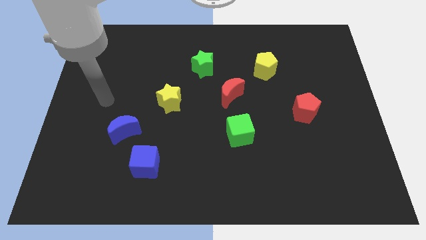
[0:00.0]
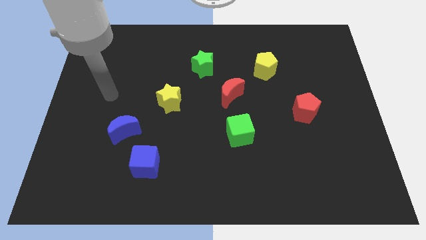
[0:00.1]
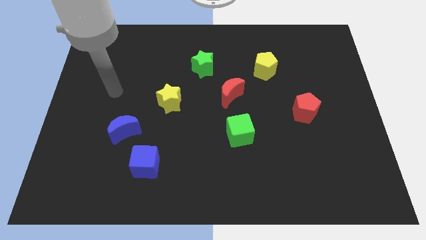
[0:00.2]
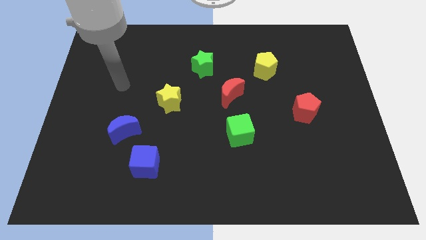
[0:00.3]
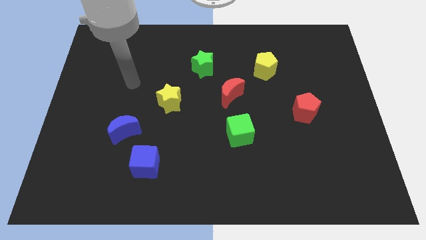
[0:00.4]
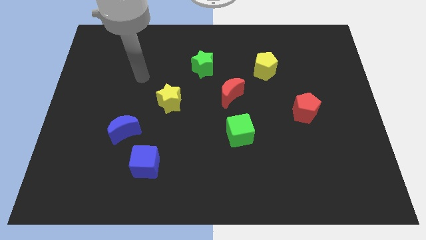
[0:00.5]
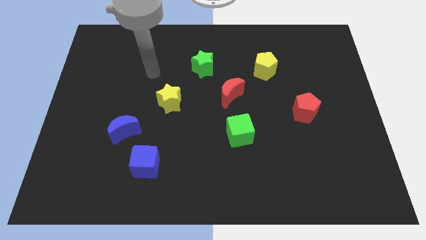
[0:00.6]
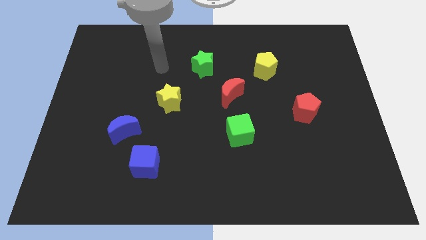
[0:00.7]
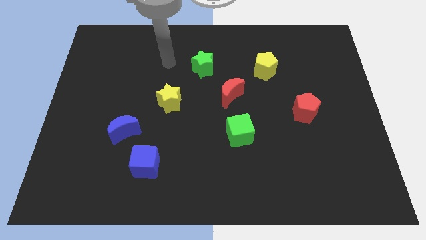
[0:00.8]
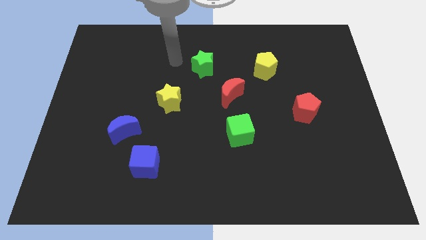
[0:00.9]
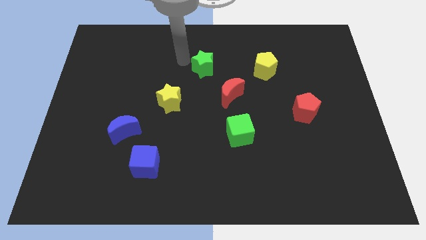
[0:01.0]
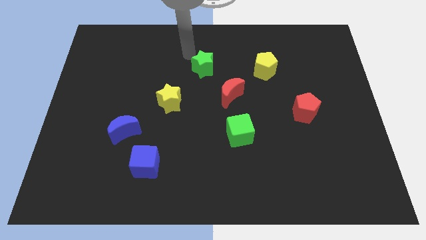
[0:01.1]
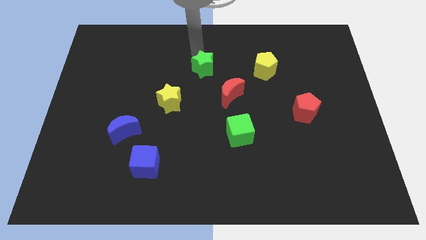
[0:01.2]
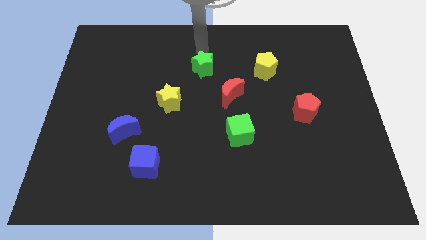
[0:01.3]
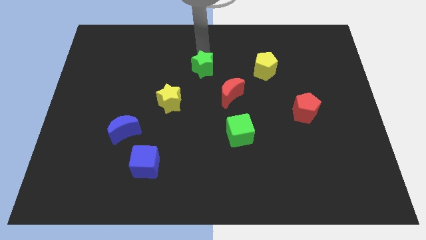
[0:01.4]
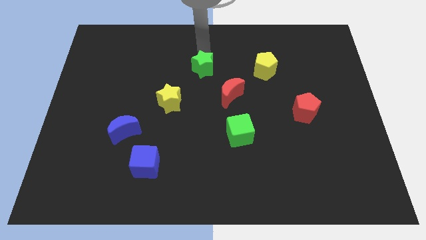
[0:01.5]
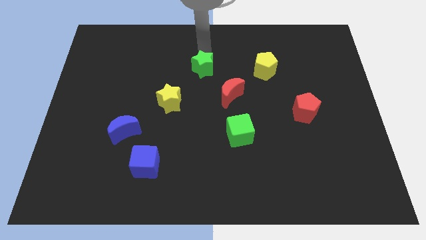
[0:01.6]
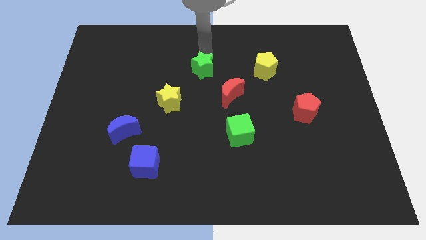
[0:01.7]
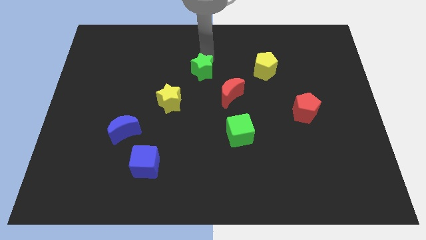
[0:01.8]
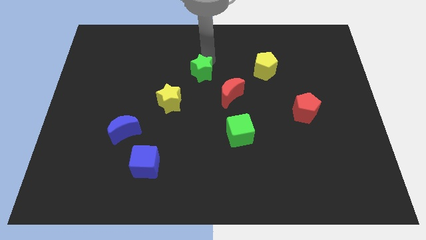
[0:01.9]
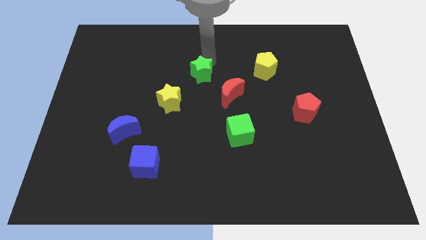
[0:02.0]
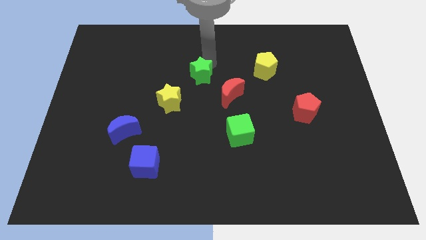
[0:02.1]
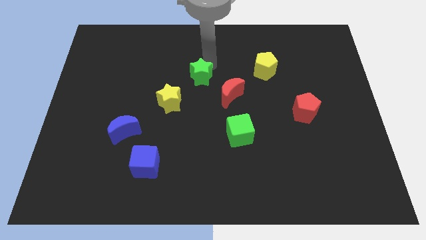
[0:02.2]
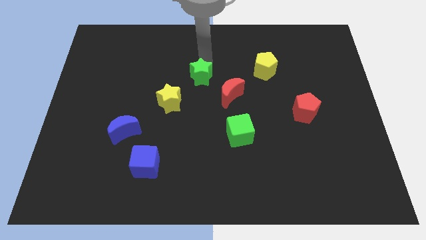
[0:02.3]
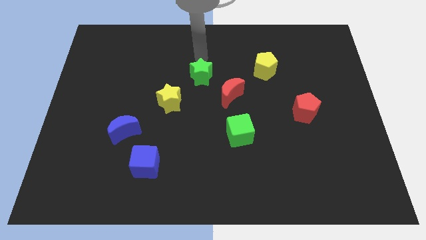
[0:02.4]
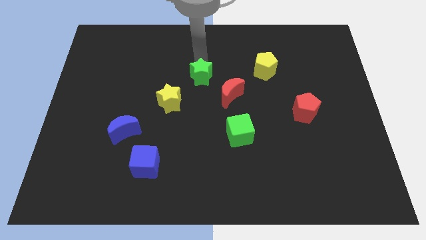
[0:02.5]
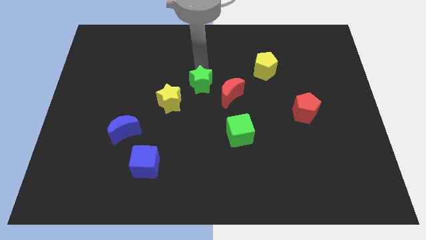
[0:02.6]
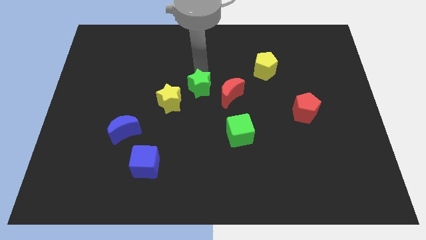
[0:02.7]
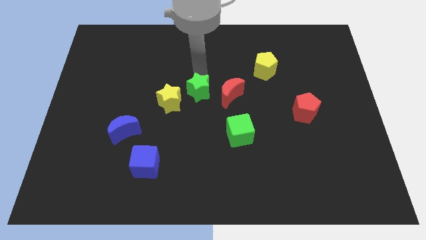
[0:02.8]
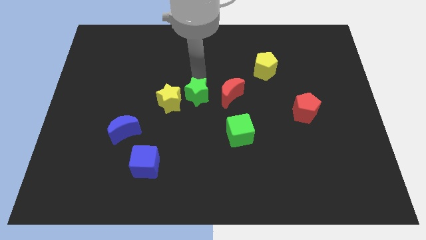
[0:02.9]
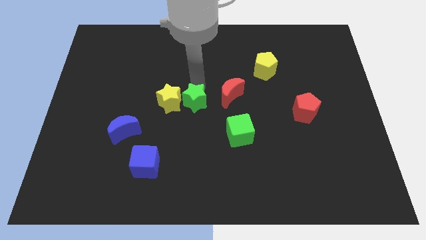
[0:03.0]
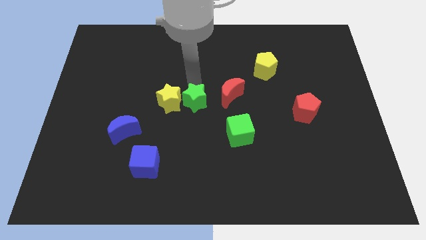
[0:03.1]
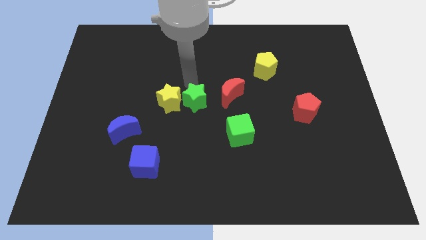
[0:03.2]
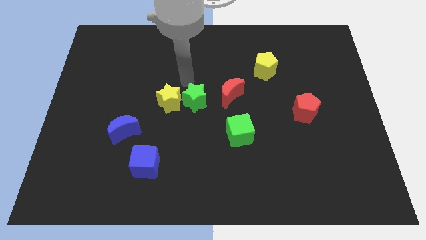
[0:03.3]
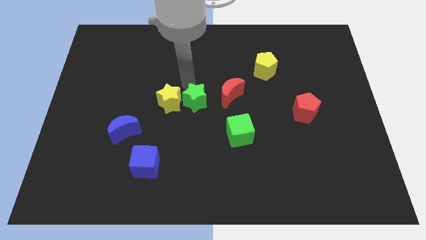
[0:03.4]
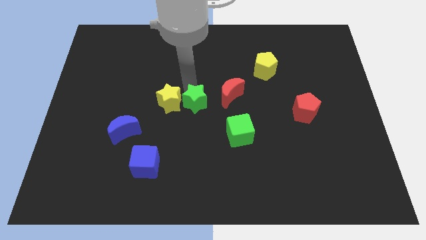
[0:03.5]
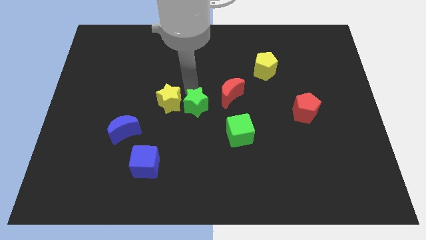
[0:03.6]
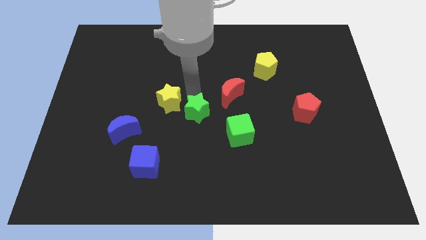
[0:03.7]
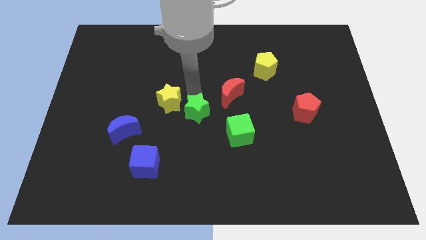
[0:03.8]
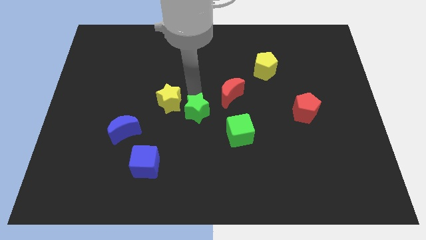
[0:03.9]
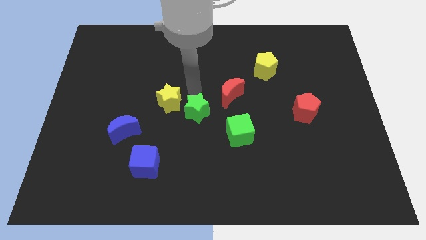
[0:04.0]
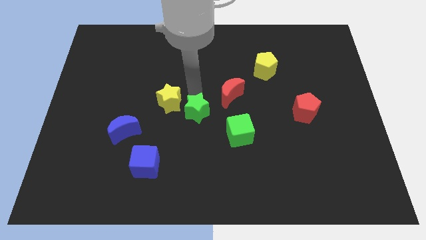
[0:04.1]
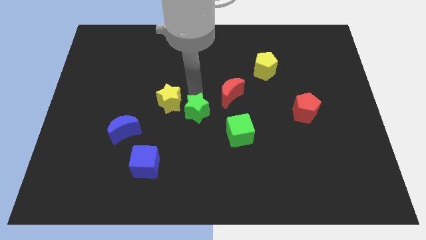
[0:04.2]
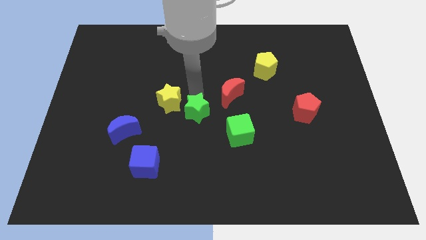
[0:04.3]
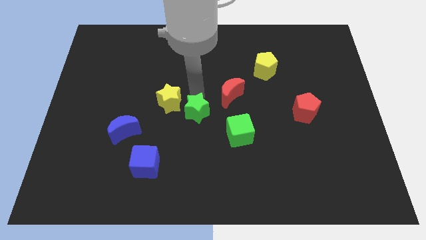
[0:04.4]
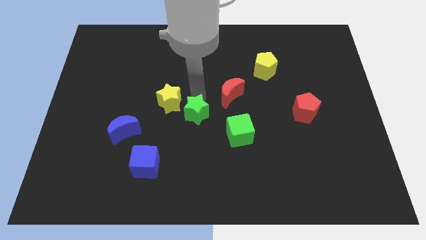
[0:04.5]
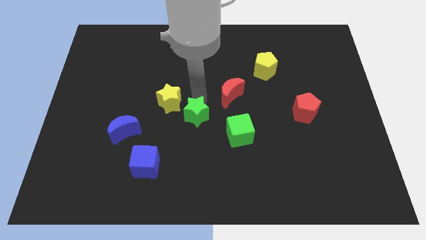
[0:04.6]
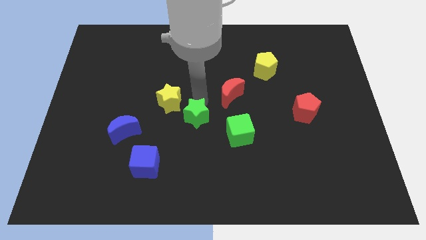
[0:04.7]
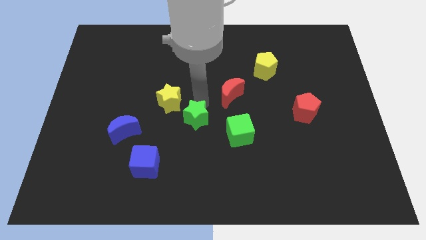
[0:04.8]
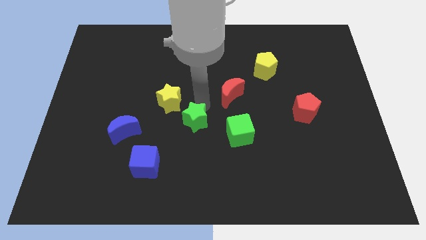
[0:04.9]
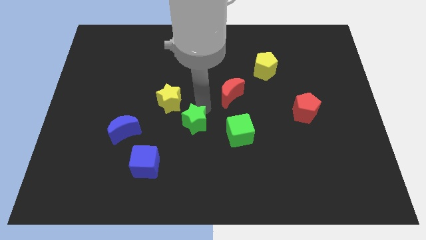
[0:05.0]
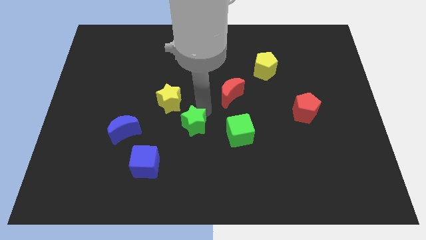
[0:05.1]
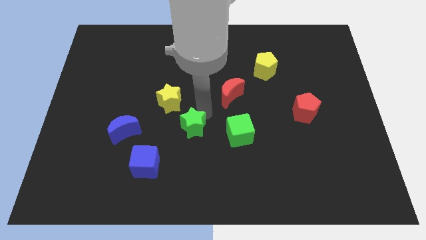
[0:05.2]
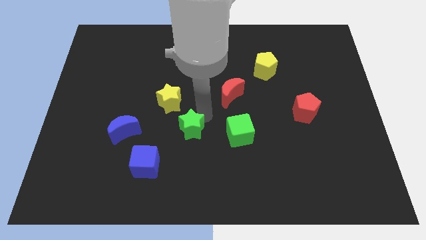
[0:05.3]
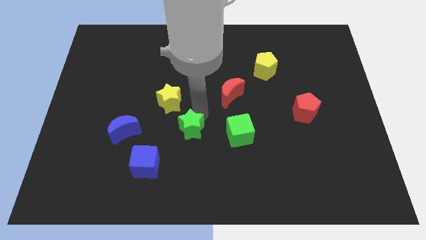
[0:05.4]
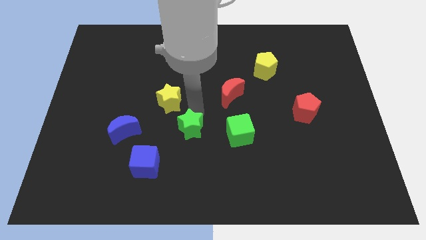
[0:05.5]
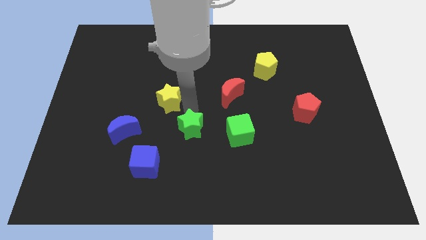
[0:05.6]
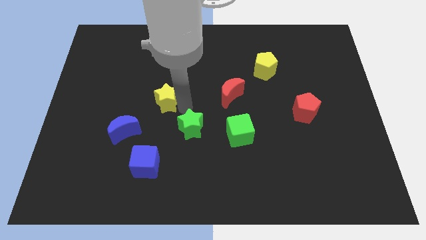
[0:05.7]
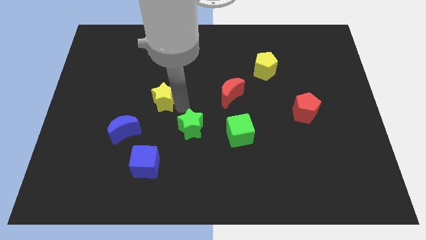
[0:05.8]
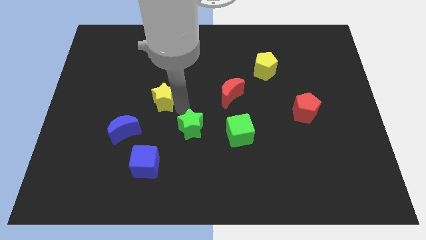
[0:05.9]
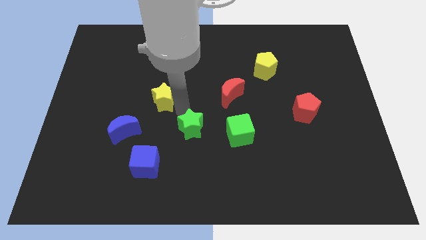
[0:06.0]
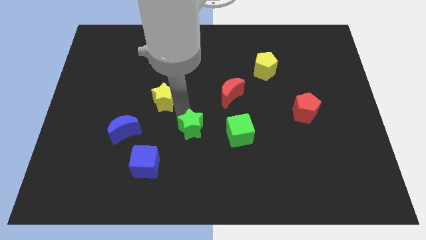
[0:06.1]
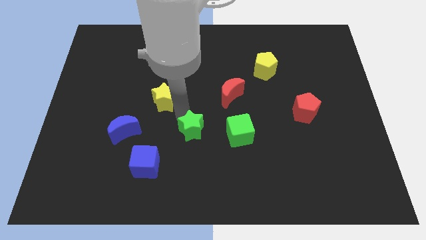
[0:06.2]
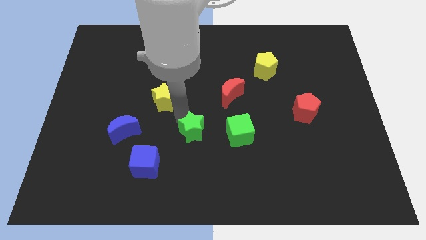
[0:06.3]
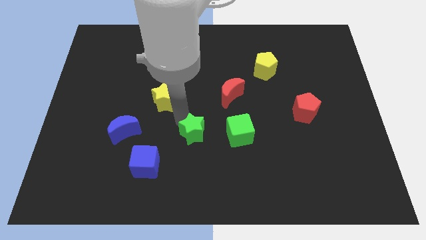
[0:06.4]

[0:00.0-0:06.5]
move the green star down

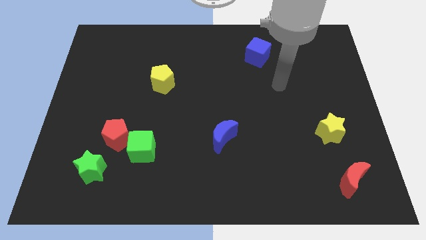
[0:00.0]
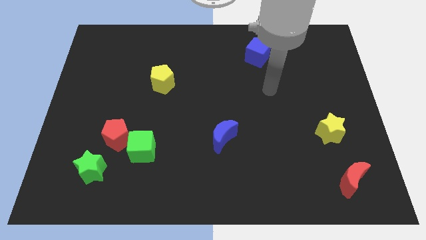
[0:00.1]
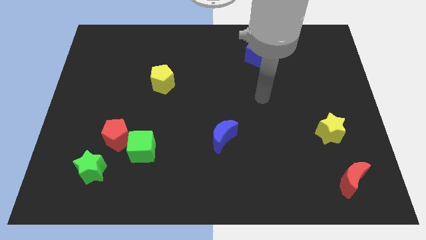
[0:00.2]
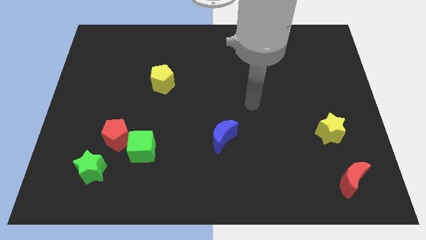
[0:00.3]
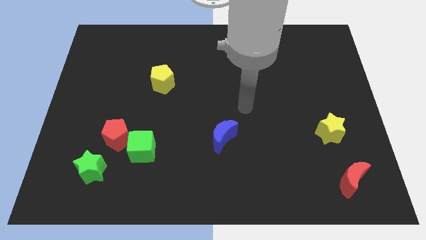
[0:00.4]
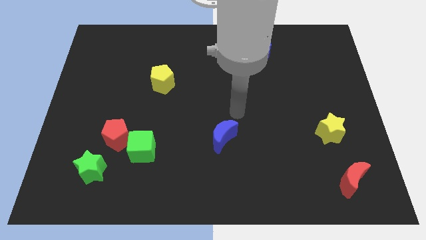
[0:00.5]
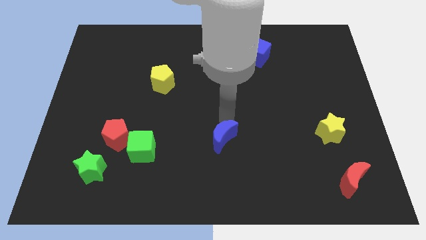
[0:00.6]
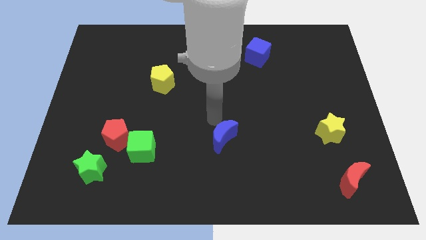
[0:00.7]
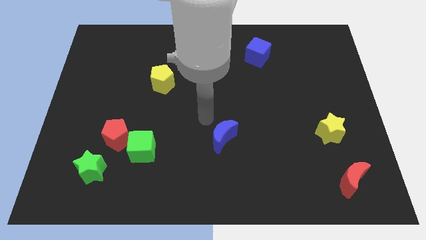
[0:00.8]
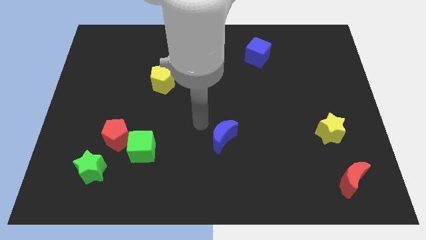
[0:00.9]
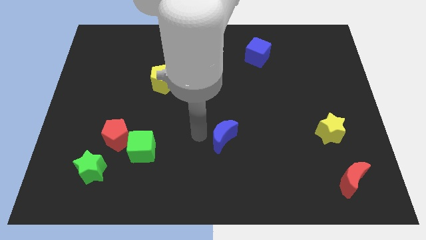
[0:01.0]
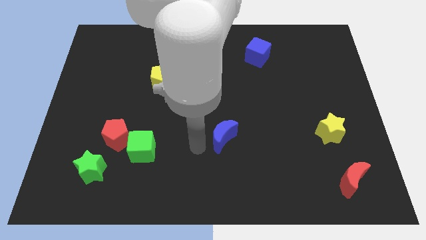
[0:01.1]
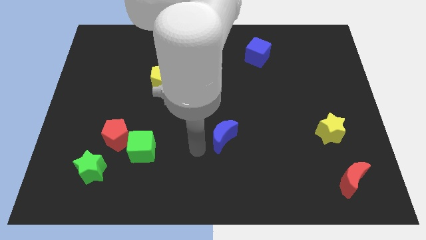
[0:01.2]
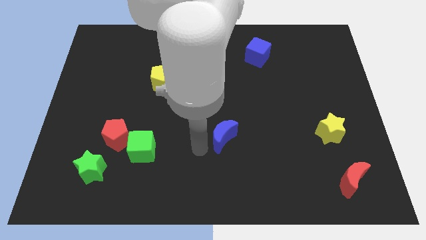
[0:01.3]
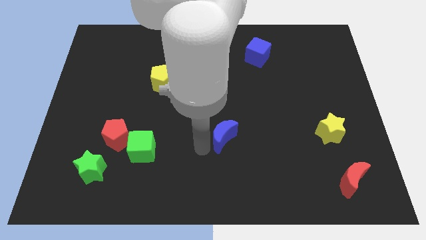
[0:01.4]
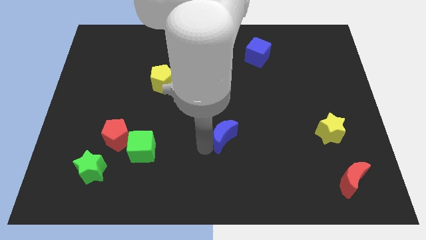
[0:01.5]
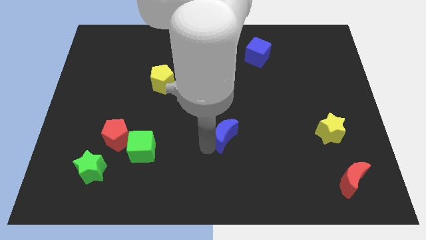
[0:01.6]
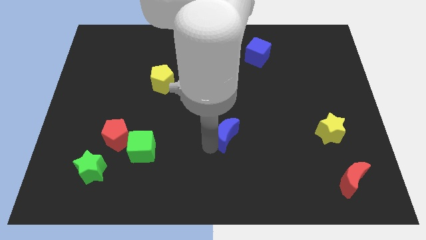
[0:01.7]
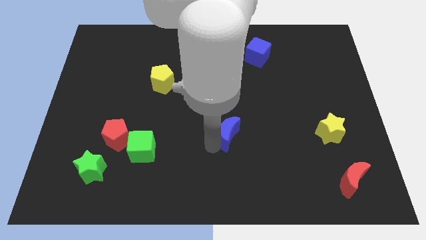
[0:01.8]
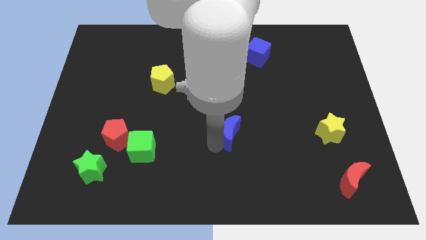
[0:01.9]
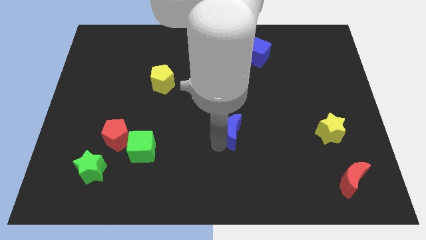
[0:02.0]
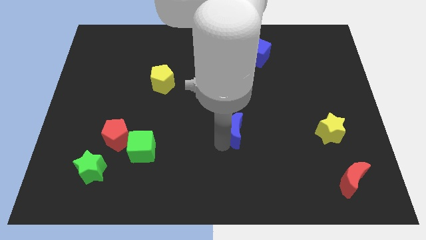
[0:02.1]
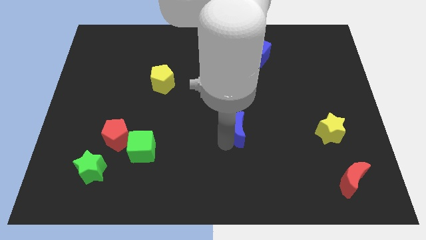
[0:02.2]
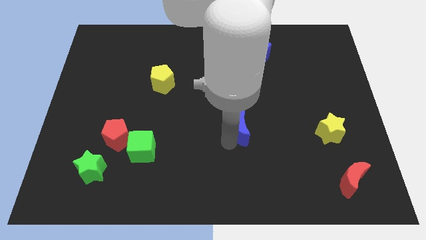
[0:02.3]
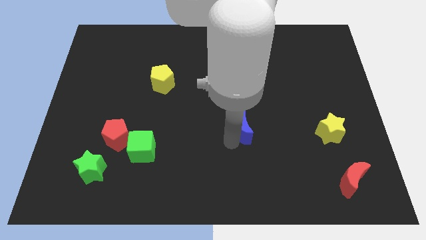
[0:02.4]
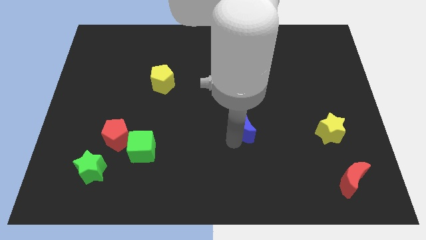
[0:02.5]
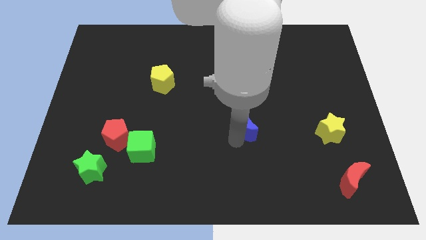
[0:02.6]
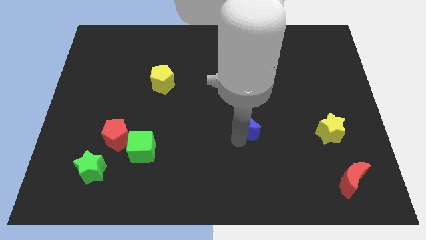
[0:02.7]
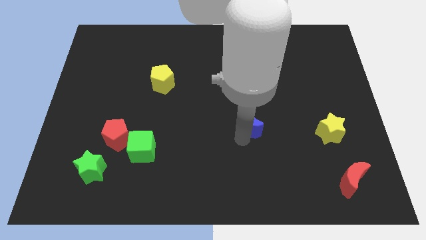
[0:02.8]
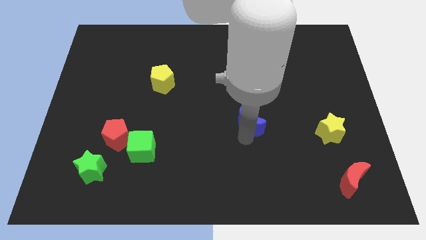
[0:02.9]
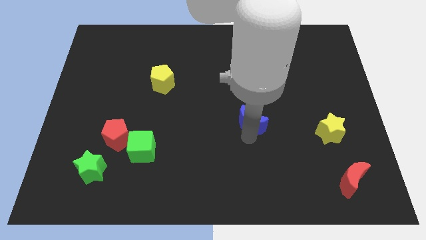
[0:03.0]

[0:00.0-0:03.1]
push the blue moon upwards and right diagonally a little bit
